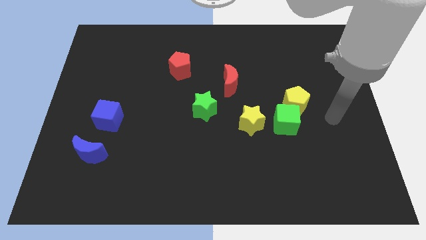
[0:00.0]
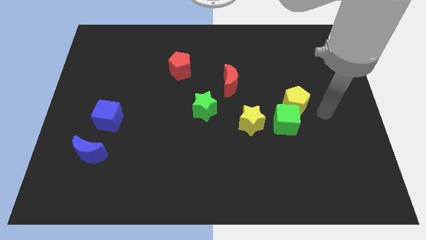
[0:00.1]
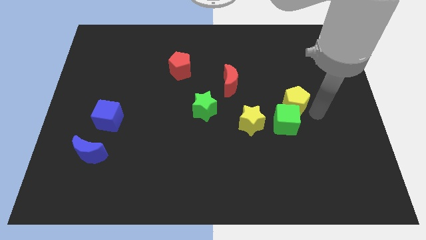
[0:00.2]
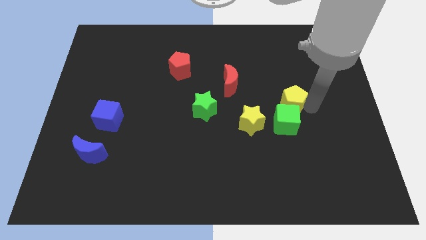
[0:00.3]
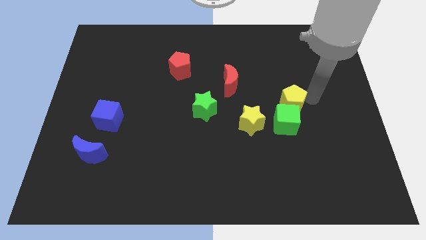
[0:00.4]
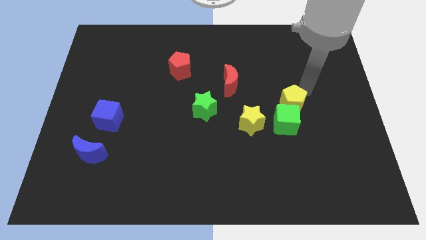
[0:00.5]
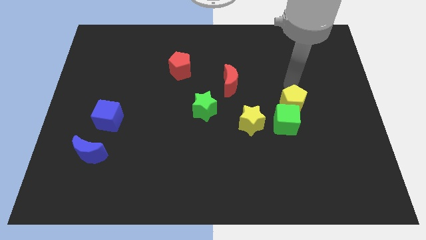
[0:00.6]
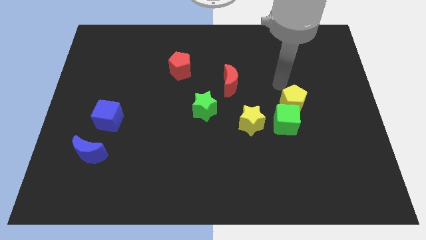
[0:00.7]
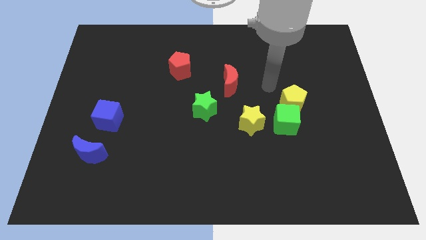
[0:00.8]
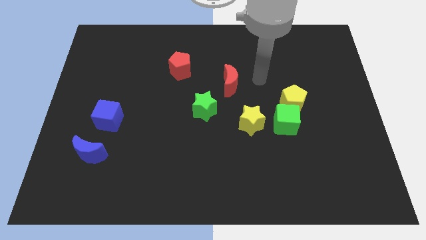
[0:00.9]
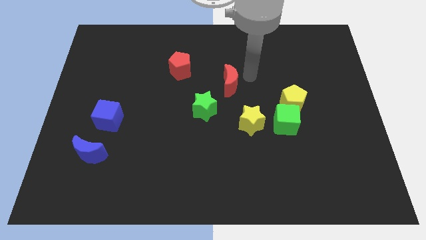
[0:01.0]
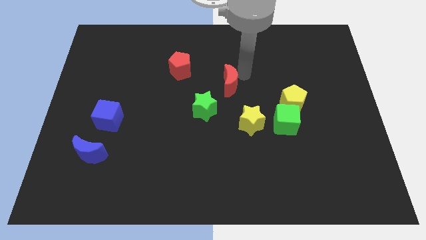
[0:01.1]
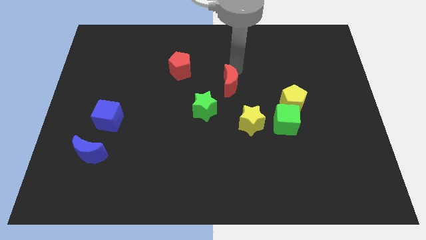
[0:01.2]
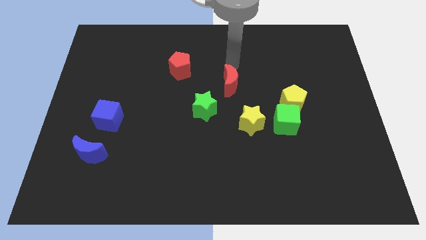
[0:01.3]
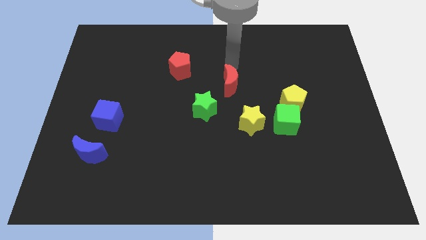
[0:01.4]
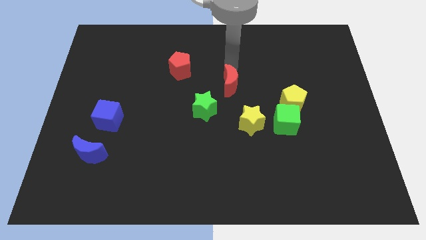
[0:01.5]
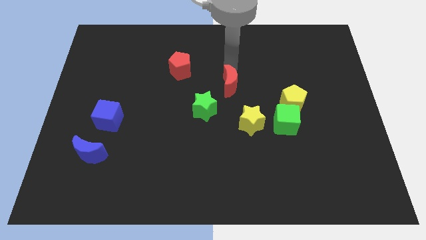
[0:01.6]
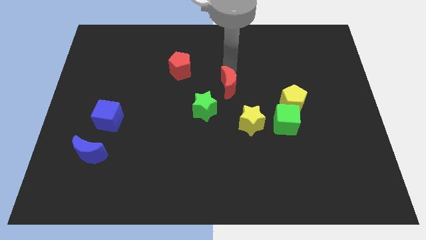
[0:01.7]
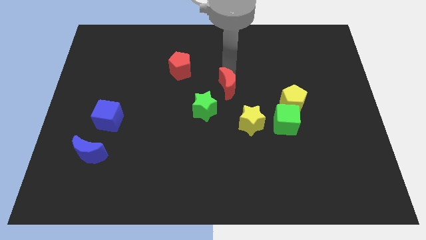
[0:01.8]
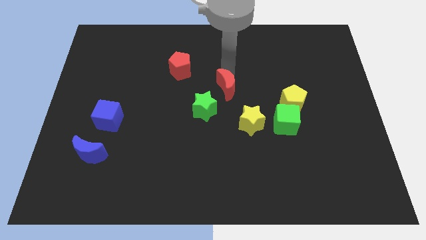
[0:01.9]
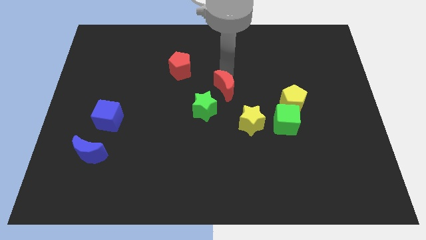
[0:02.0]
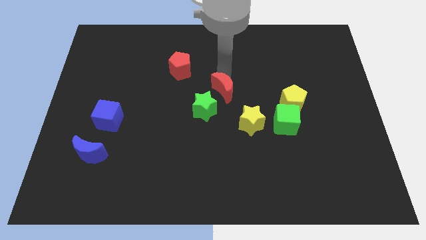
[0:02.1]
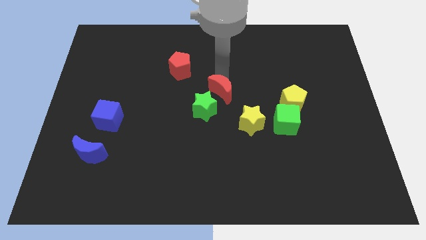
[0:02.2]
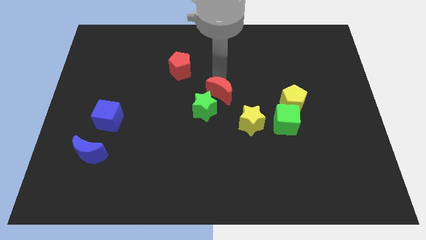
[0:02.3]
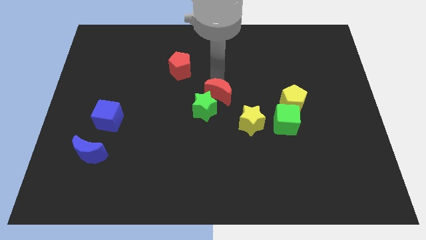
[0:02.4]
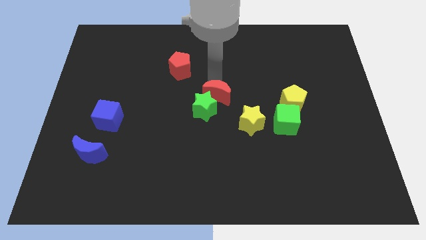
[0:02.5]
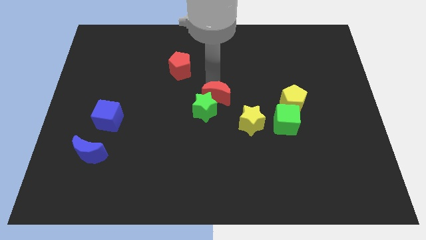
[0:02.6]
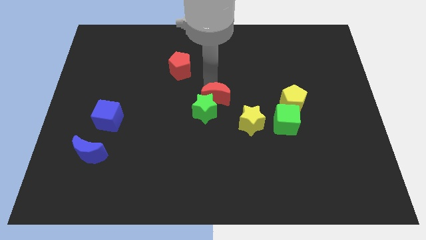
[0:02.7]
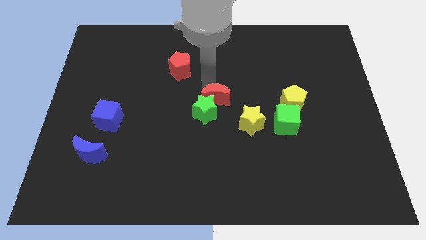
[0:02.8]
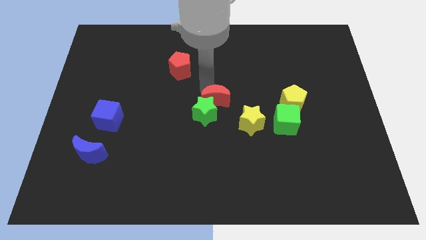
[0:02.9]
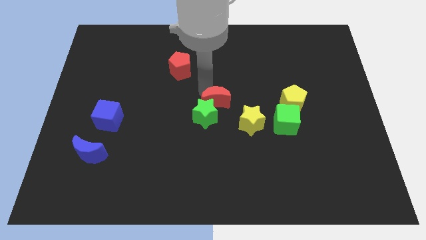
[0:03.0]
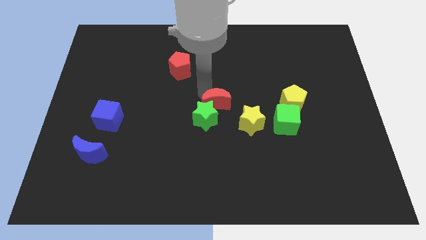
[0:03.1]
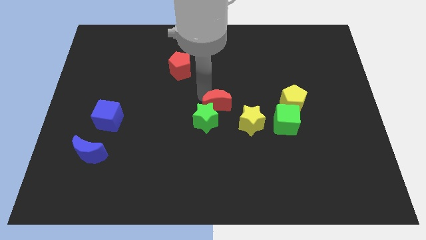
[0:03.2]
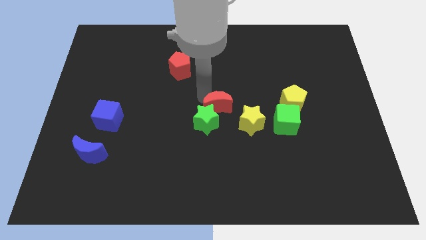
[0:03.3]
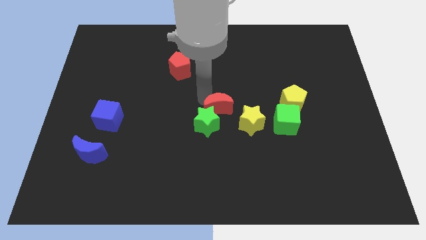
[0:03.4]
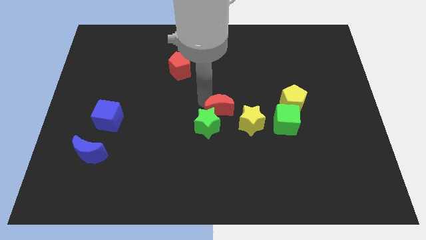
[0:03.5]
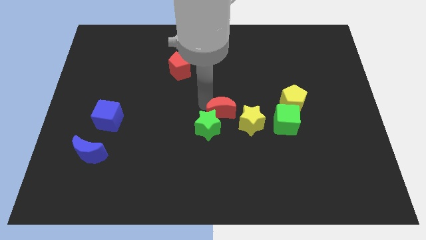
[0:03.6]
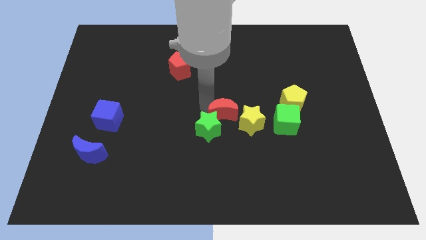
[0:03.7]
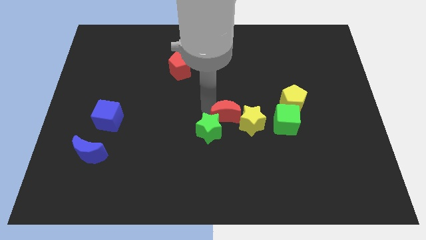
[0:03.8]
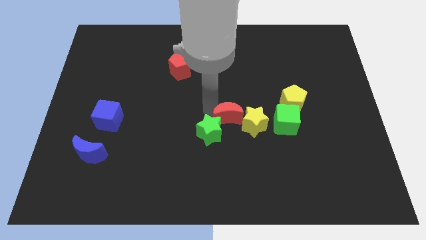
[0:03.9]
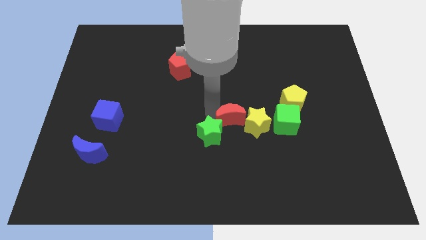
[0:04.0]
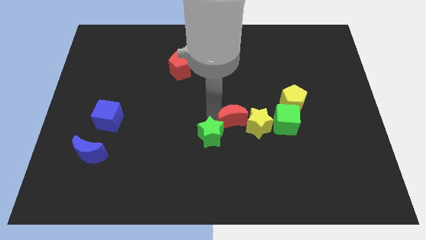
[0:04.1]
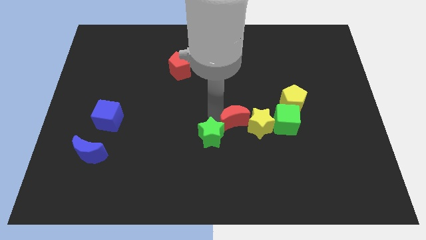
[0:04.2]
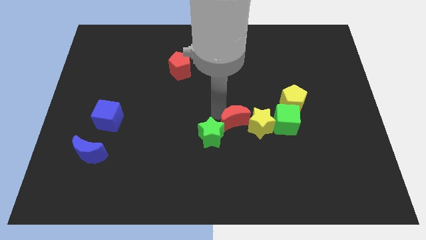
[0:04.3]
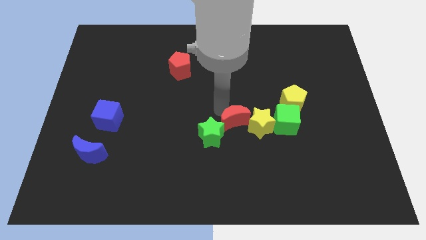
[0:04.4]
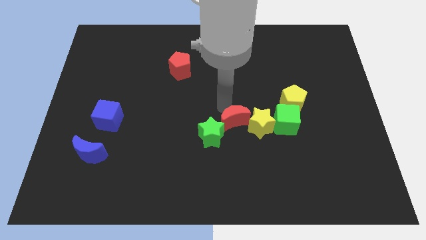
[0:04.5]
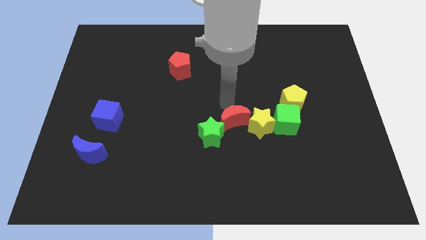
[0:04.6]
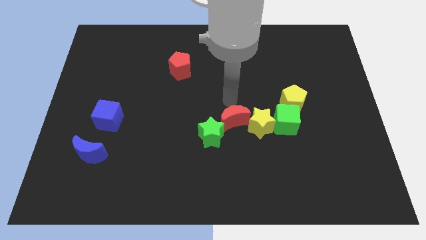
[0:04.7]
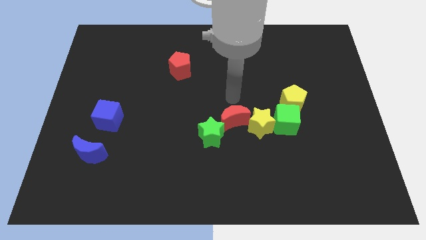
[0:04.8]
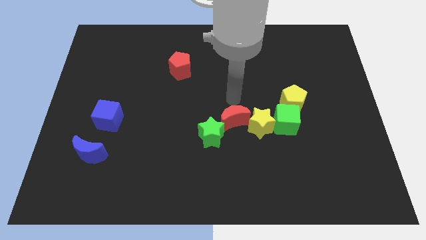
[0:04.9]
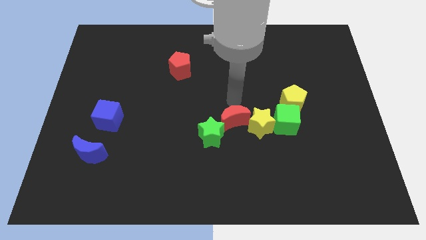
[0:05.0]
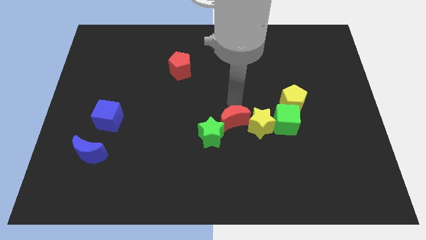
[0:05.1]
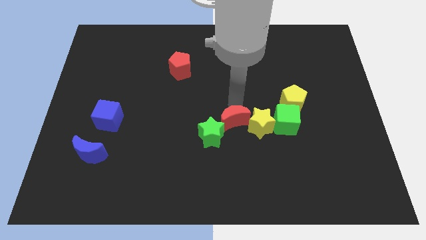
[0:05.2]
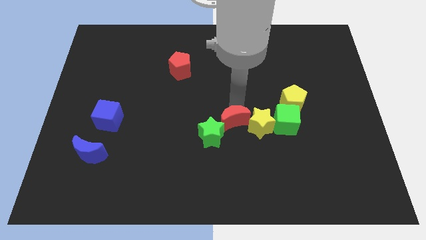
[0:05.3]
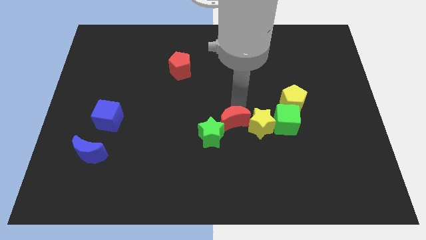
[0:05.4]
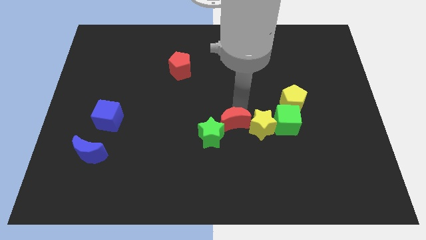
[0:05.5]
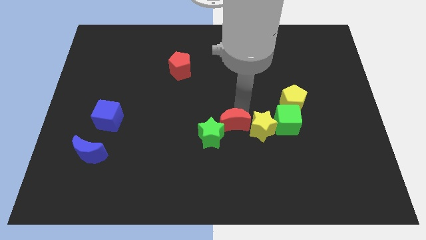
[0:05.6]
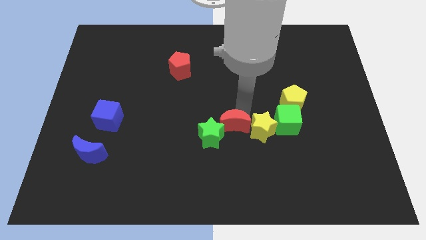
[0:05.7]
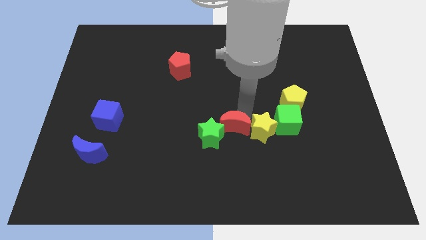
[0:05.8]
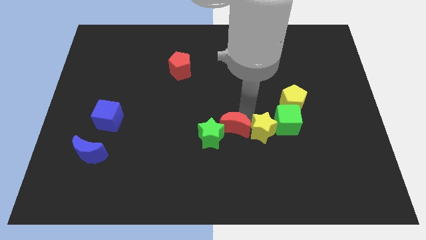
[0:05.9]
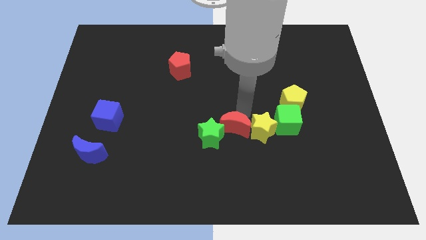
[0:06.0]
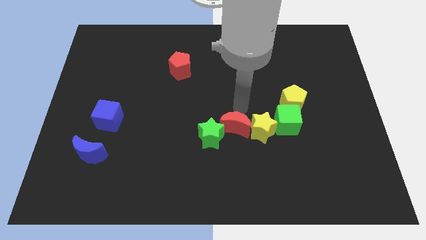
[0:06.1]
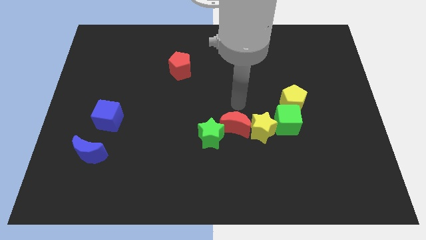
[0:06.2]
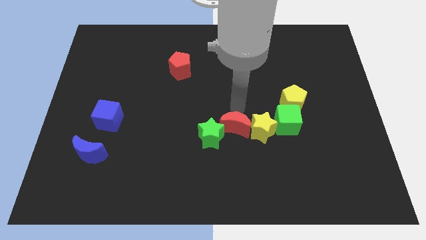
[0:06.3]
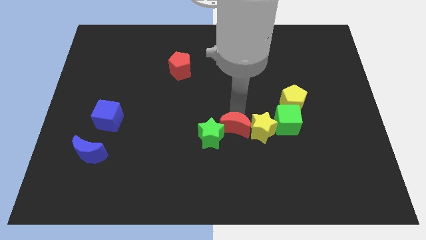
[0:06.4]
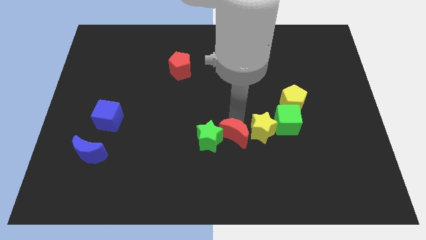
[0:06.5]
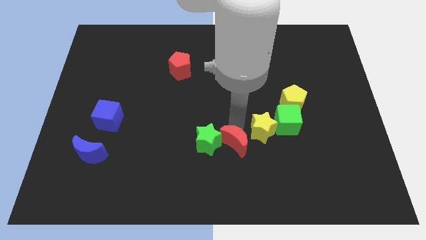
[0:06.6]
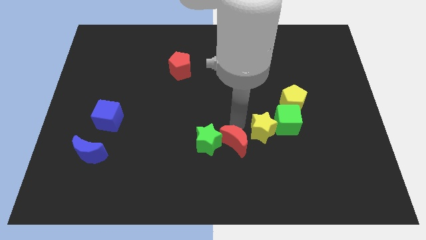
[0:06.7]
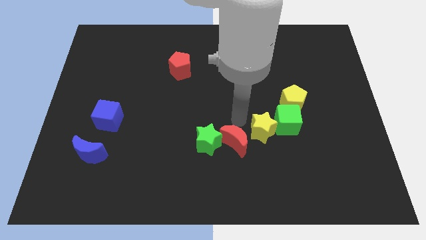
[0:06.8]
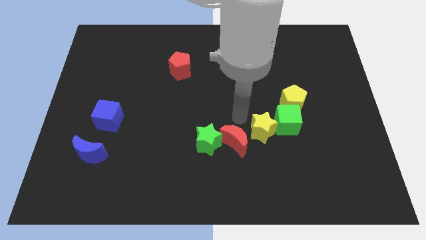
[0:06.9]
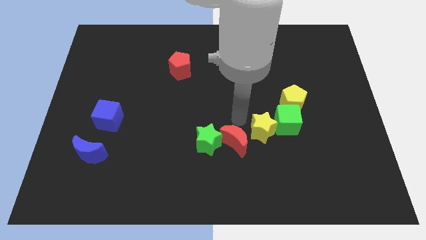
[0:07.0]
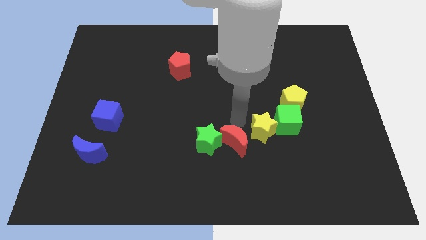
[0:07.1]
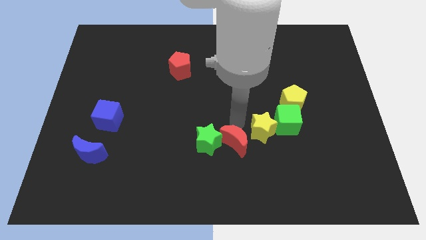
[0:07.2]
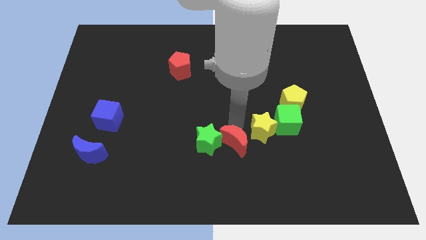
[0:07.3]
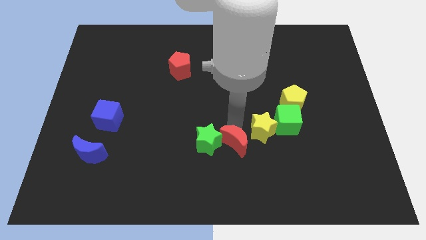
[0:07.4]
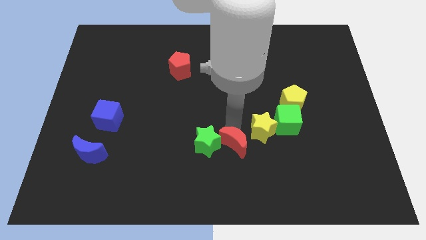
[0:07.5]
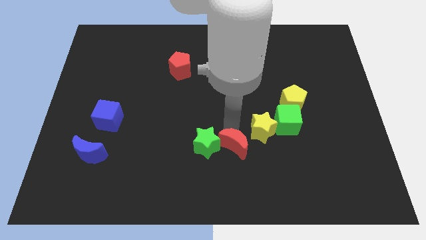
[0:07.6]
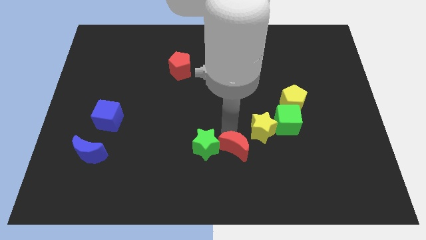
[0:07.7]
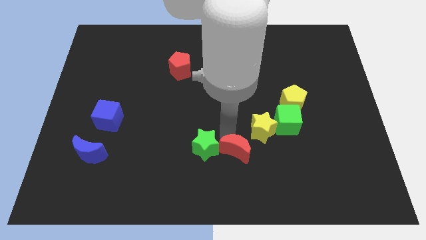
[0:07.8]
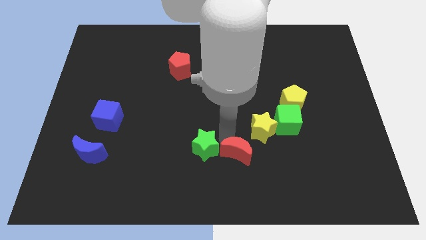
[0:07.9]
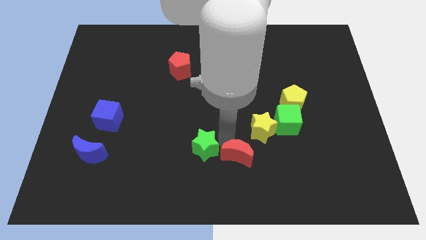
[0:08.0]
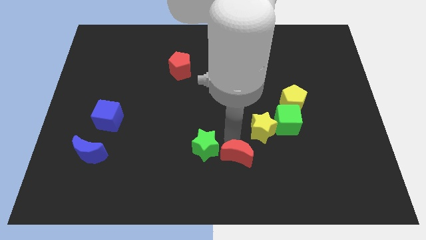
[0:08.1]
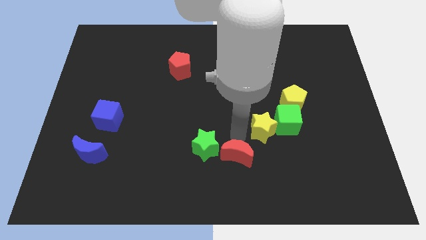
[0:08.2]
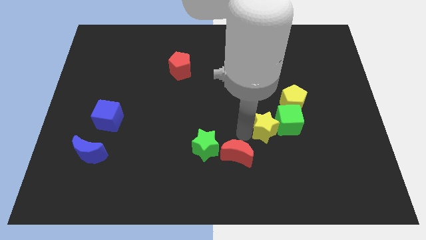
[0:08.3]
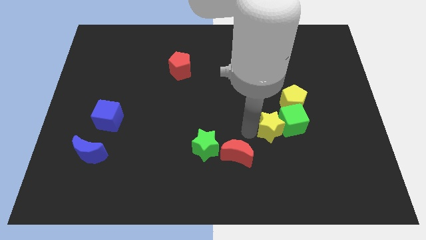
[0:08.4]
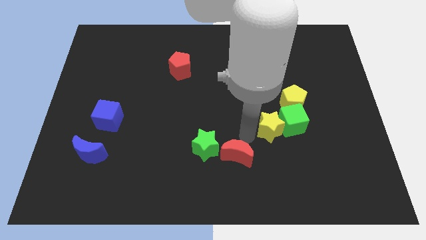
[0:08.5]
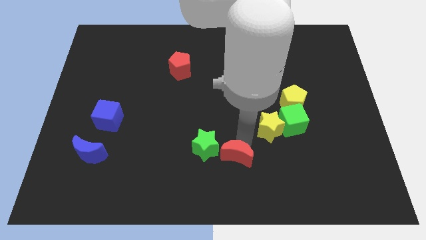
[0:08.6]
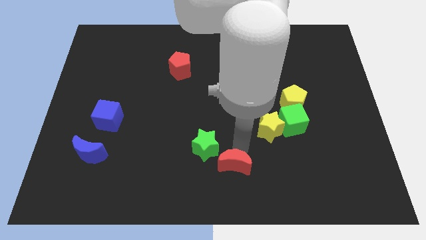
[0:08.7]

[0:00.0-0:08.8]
move the red moon to the bottom
